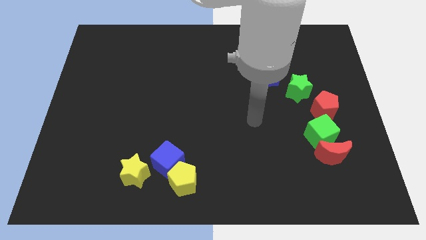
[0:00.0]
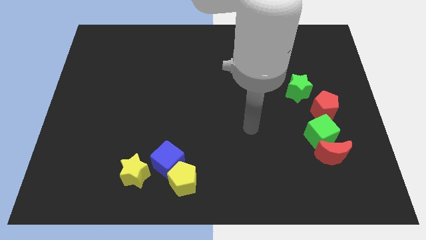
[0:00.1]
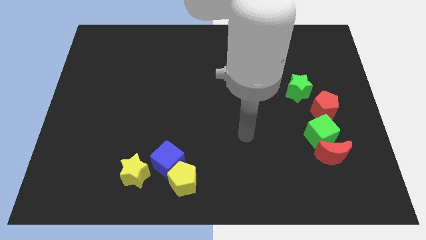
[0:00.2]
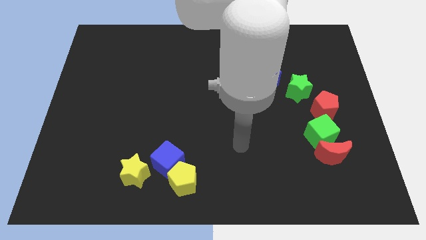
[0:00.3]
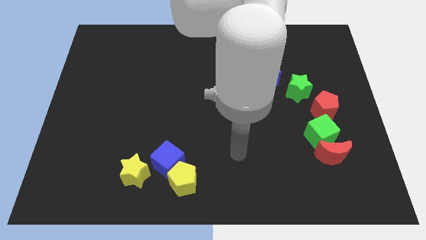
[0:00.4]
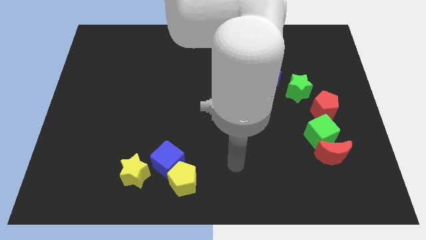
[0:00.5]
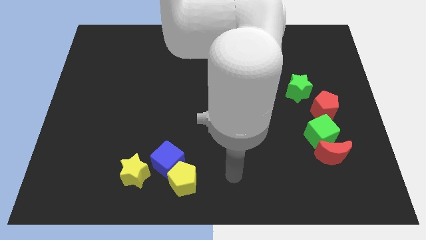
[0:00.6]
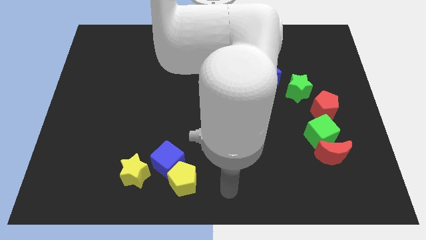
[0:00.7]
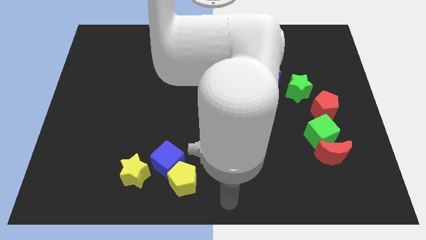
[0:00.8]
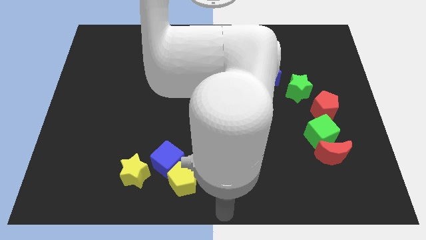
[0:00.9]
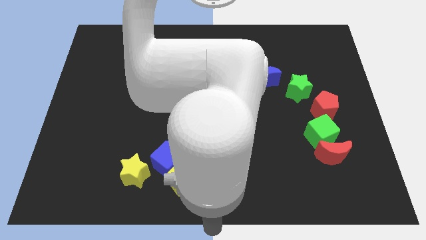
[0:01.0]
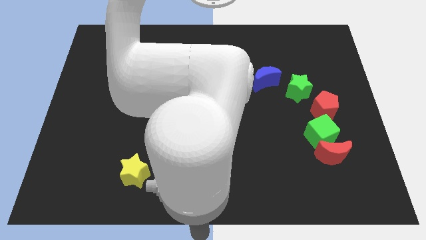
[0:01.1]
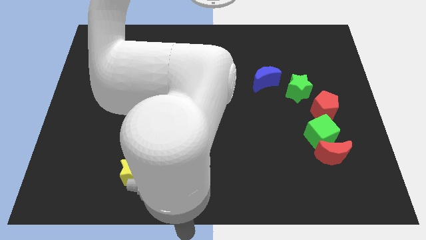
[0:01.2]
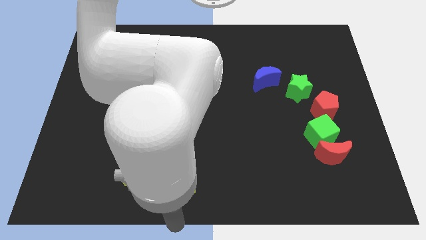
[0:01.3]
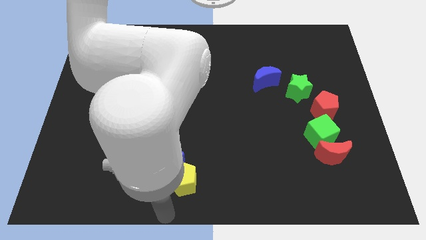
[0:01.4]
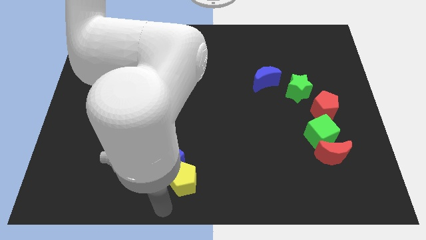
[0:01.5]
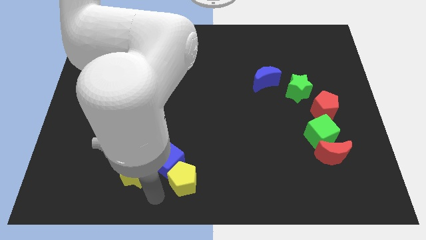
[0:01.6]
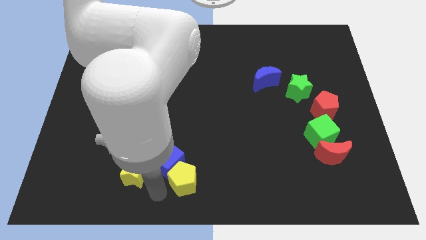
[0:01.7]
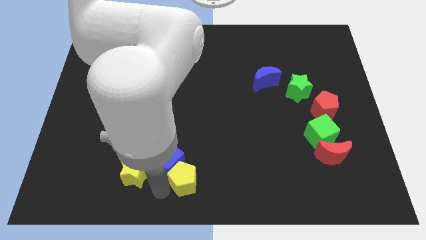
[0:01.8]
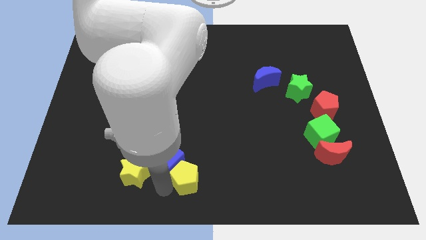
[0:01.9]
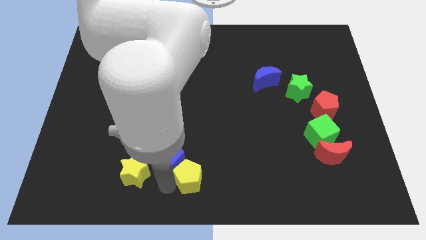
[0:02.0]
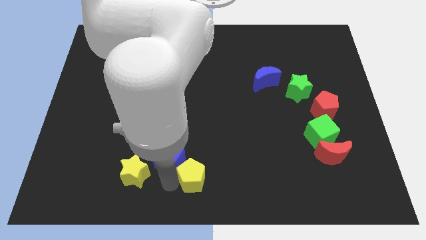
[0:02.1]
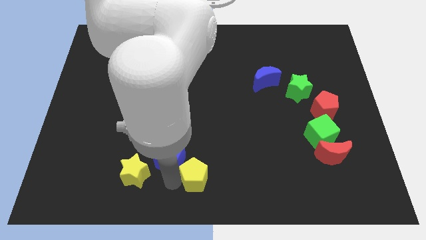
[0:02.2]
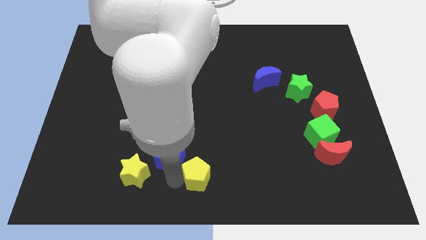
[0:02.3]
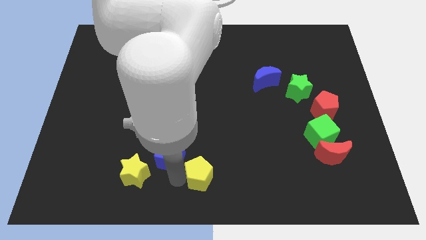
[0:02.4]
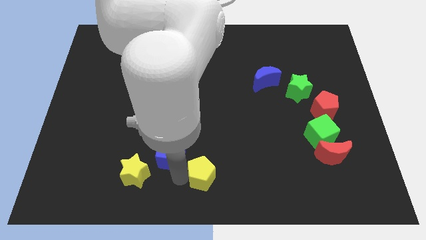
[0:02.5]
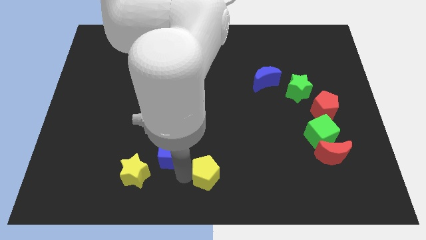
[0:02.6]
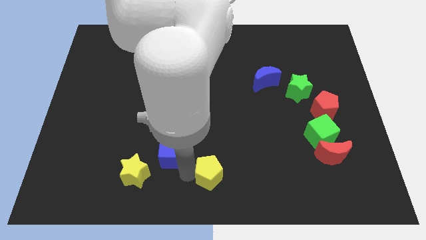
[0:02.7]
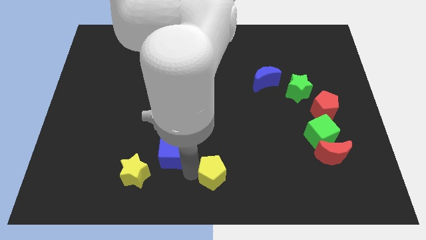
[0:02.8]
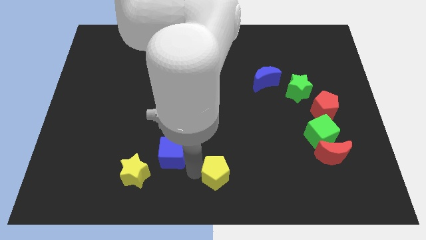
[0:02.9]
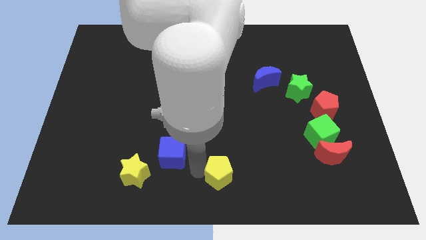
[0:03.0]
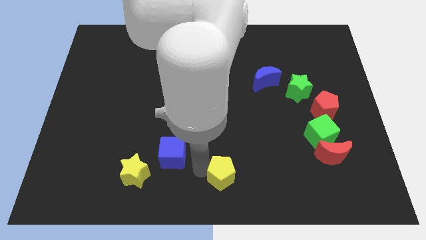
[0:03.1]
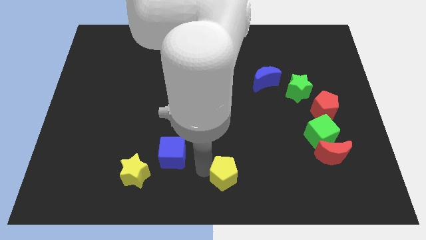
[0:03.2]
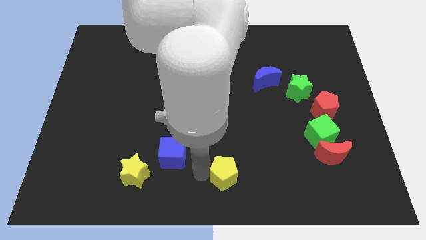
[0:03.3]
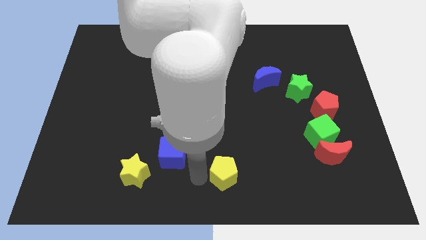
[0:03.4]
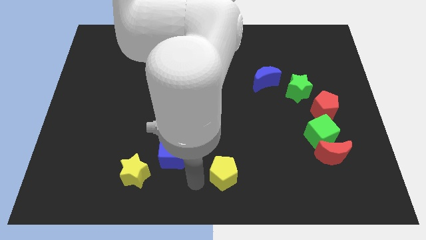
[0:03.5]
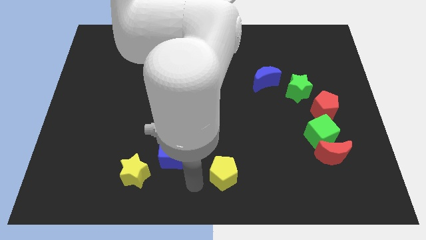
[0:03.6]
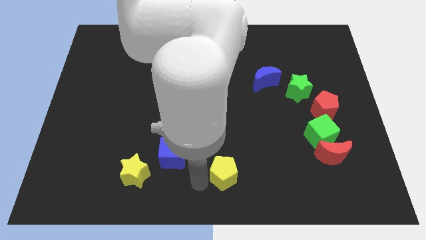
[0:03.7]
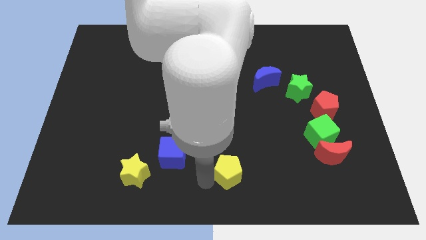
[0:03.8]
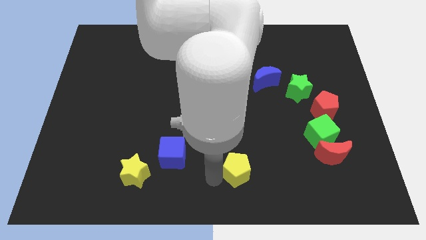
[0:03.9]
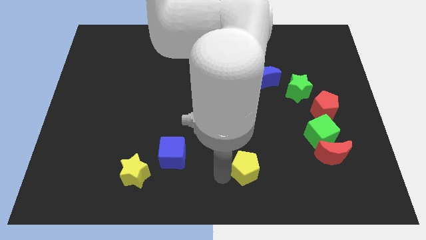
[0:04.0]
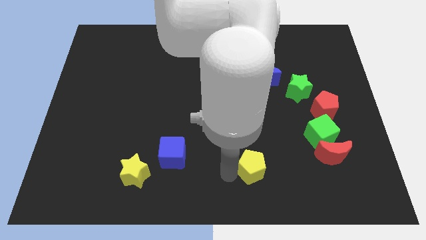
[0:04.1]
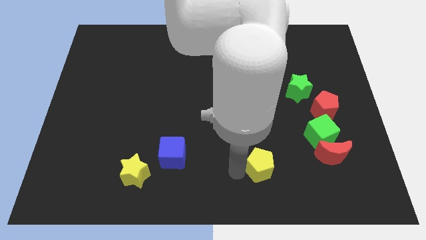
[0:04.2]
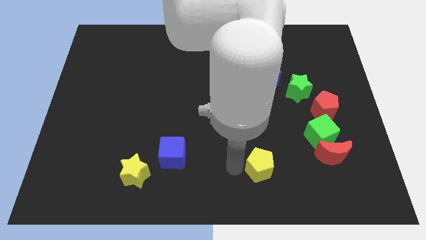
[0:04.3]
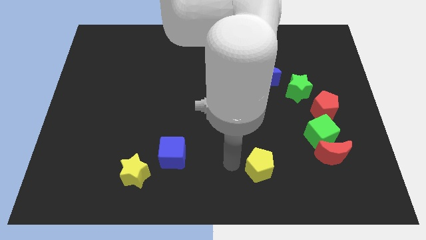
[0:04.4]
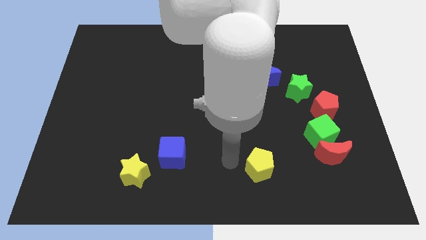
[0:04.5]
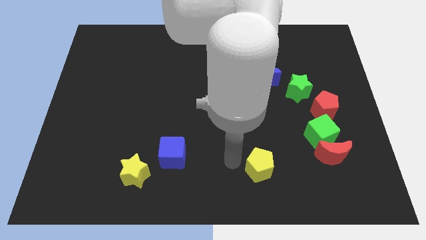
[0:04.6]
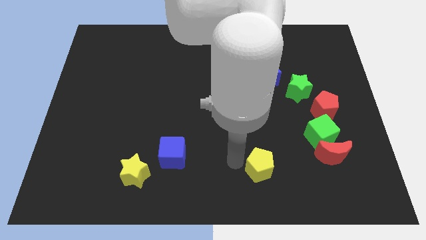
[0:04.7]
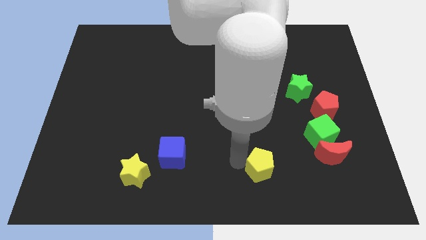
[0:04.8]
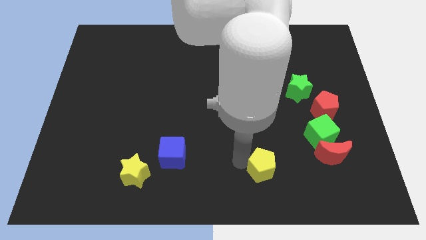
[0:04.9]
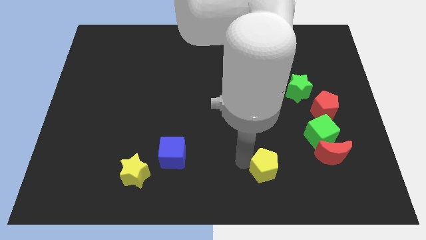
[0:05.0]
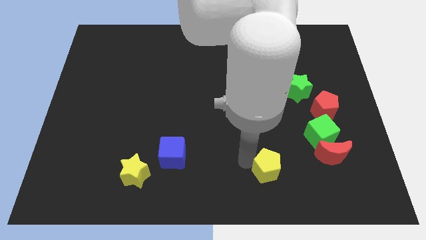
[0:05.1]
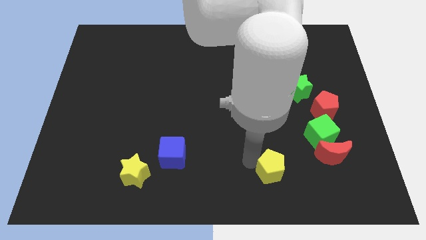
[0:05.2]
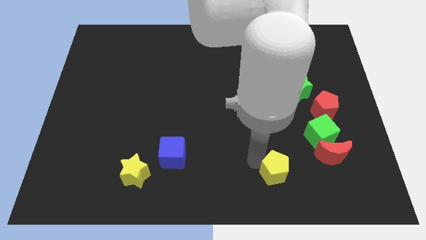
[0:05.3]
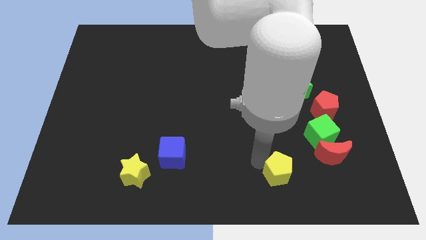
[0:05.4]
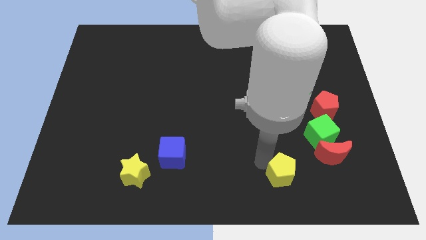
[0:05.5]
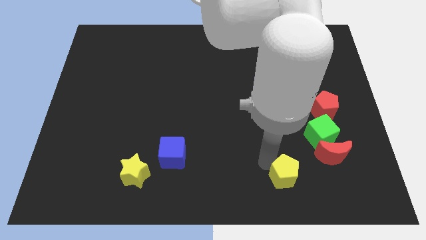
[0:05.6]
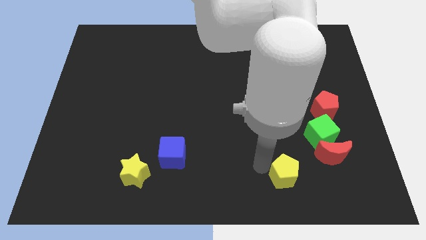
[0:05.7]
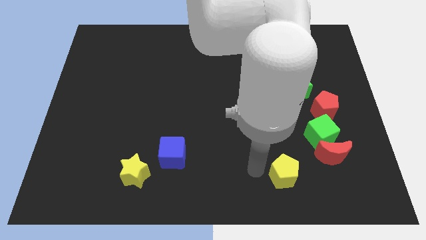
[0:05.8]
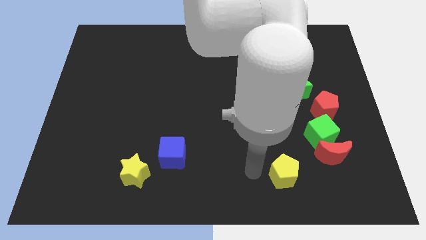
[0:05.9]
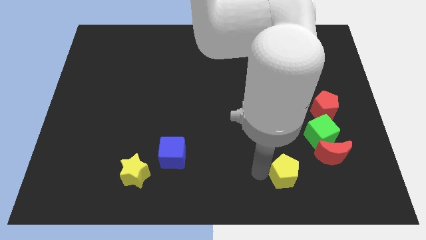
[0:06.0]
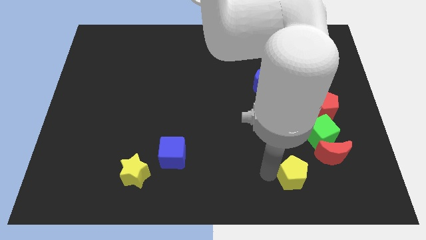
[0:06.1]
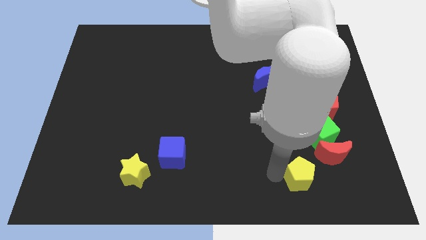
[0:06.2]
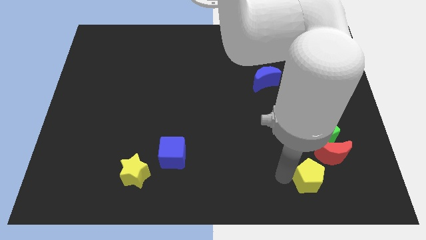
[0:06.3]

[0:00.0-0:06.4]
slide the yellow pentagon to the bottom of the green cube

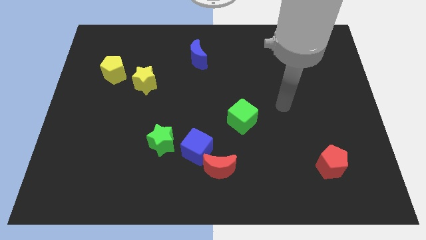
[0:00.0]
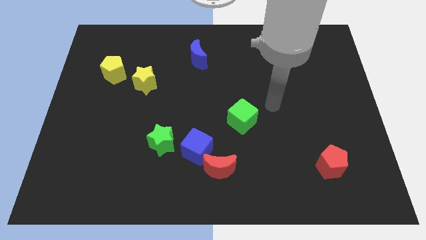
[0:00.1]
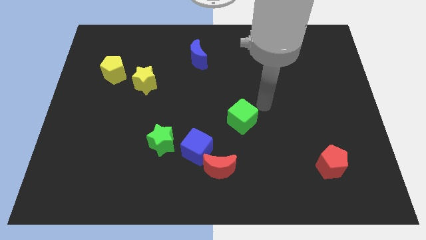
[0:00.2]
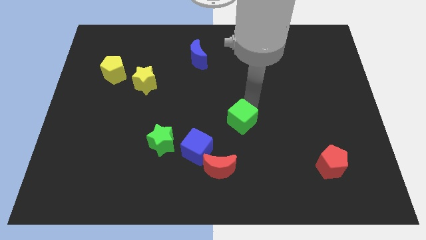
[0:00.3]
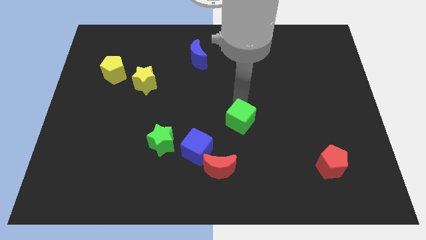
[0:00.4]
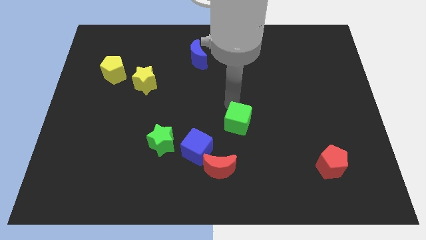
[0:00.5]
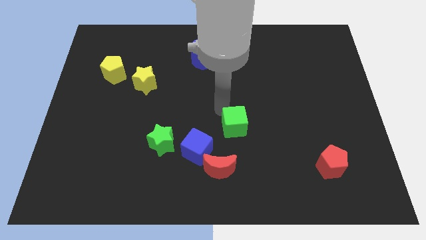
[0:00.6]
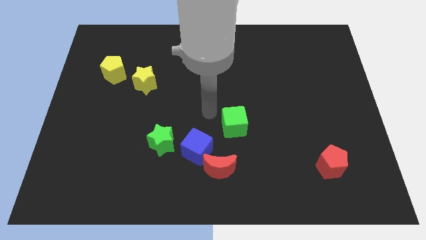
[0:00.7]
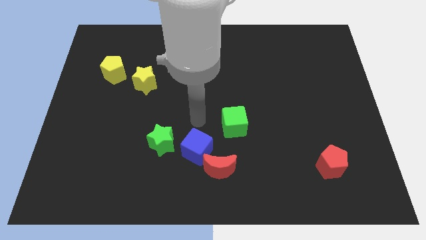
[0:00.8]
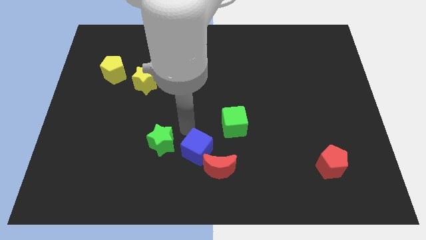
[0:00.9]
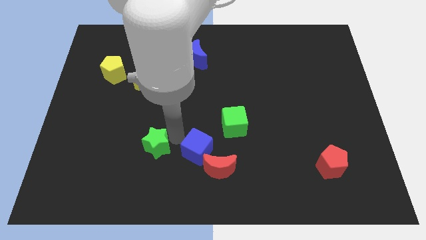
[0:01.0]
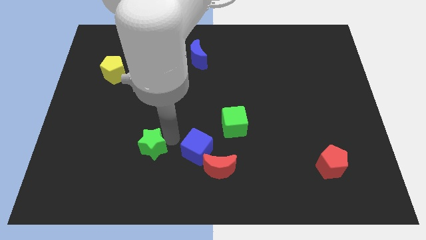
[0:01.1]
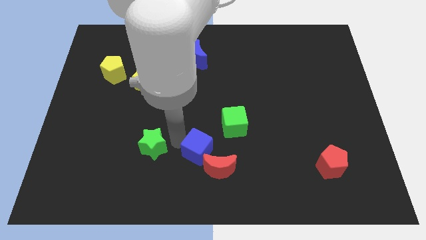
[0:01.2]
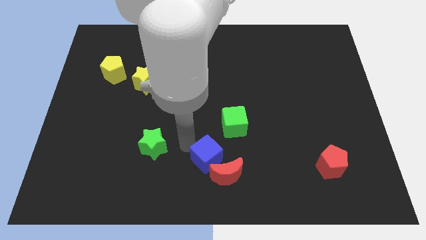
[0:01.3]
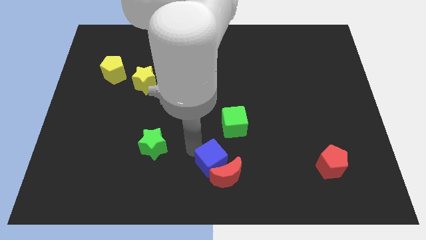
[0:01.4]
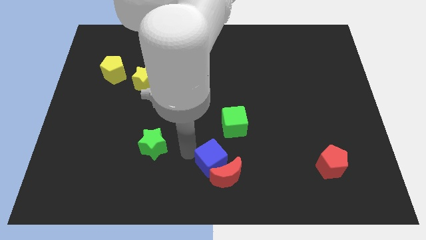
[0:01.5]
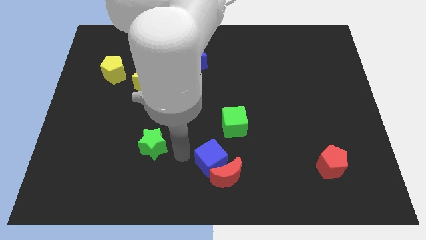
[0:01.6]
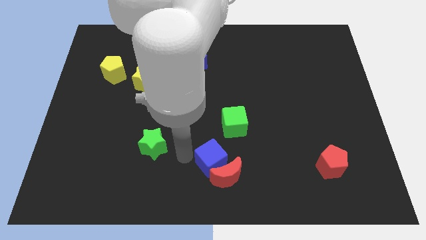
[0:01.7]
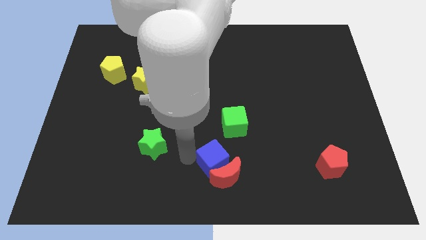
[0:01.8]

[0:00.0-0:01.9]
slide the blue cube to the bottom of the green cube
